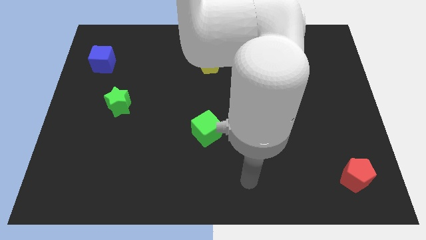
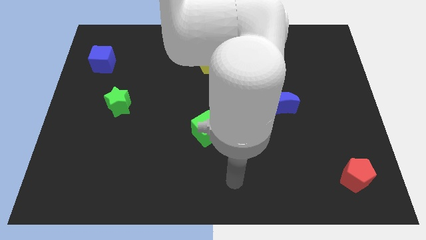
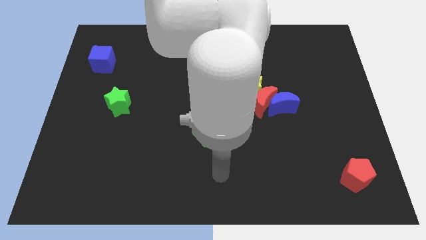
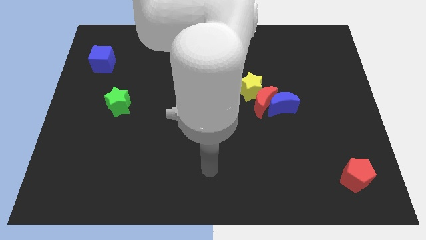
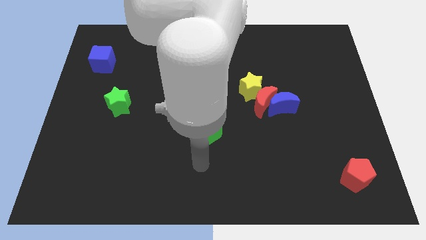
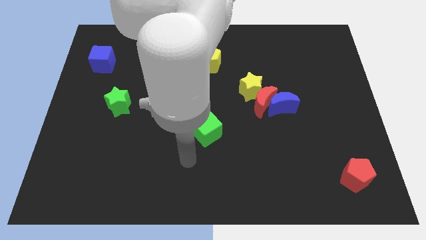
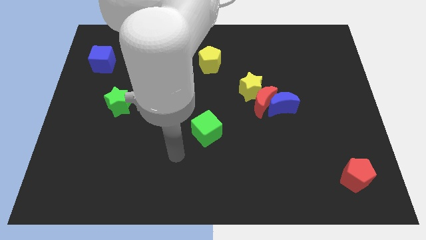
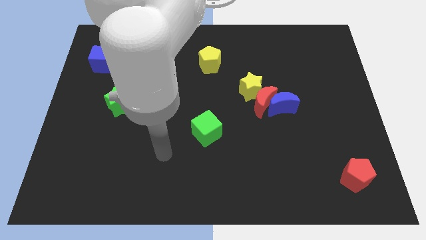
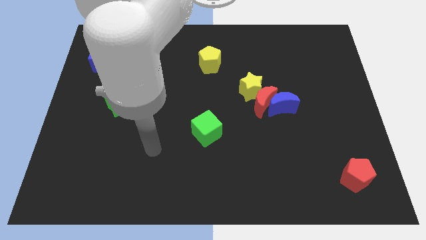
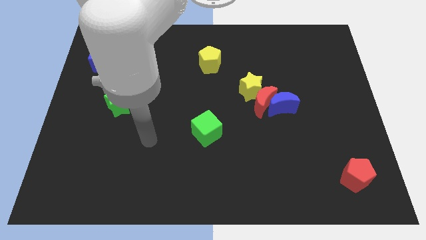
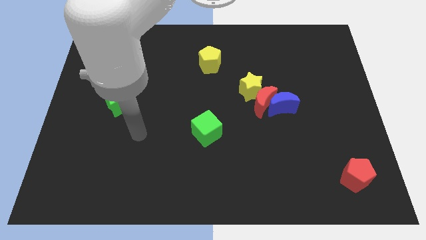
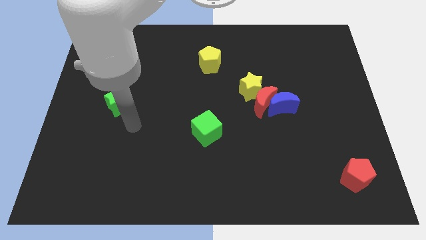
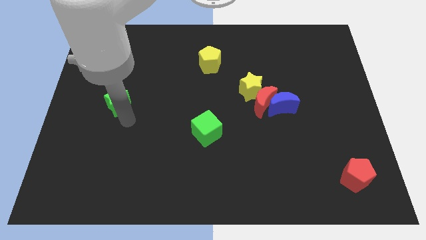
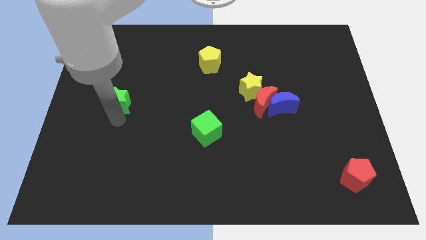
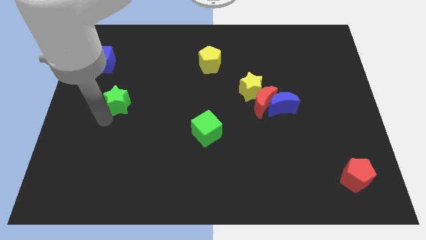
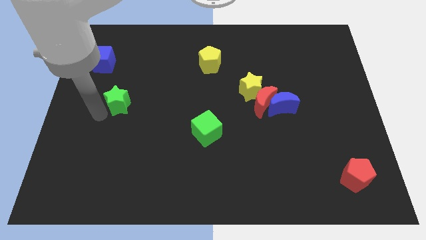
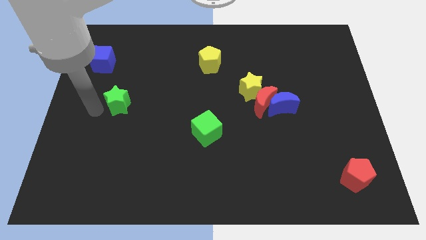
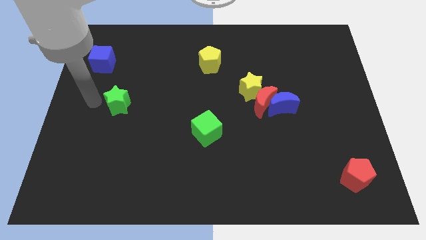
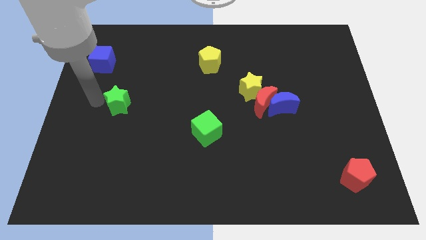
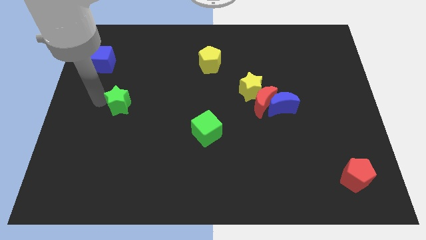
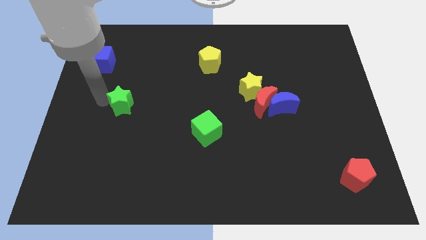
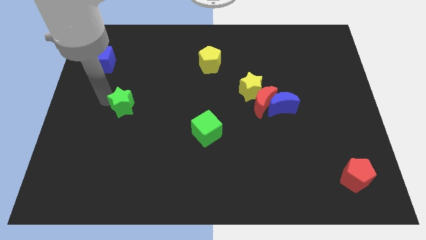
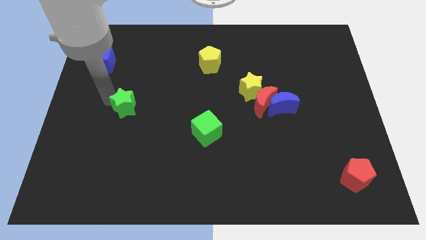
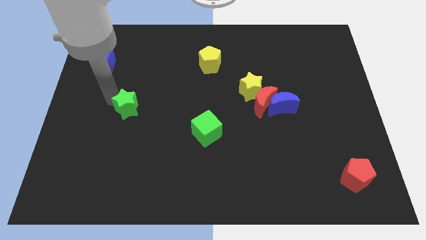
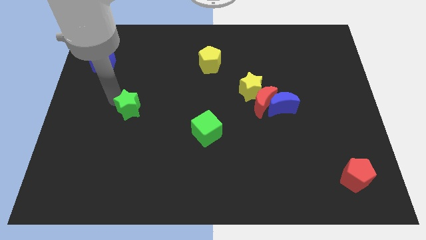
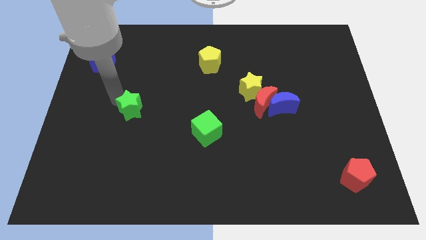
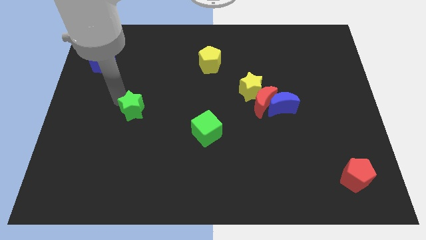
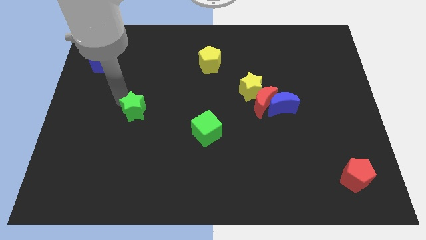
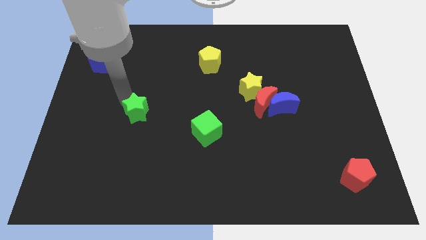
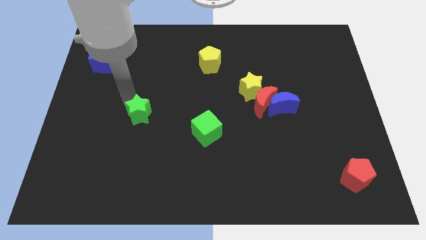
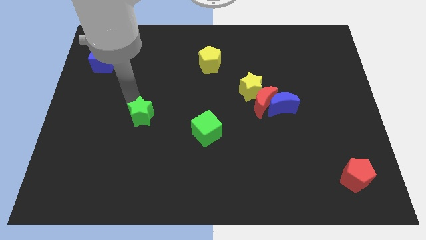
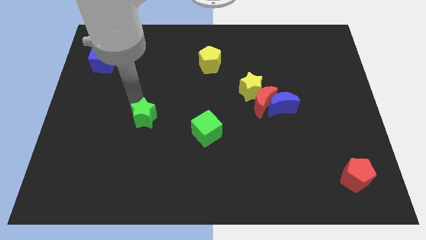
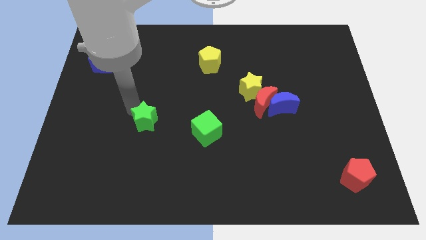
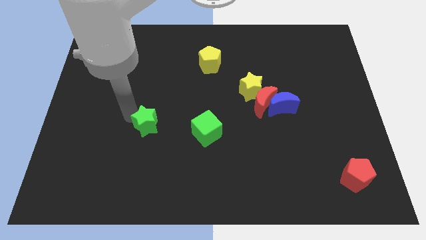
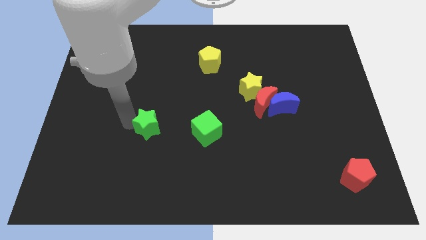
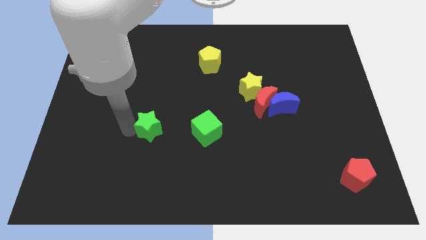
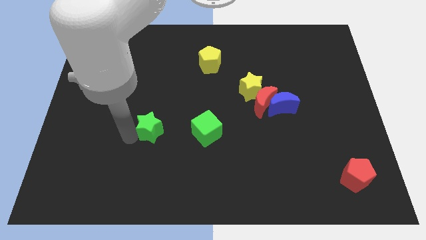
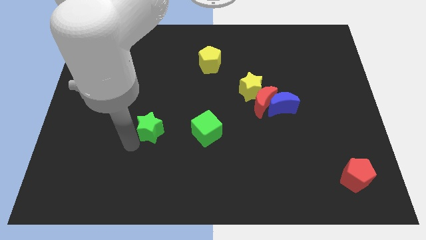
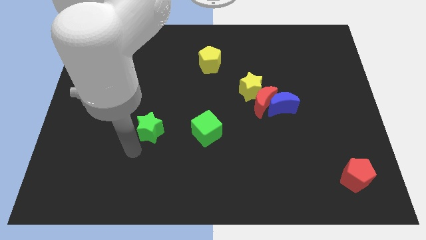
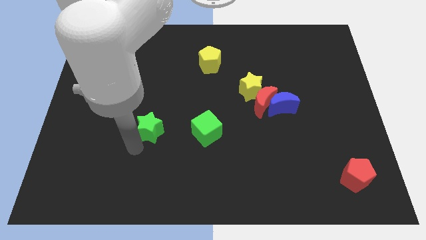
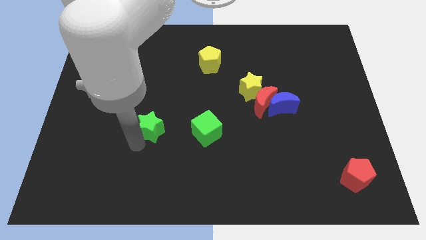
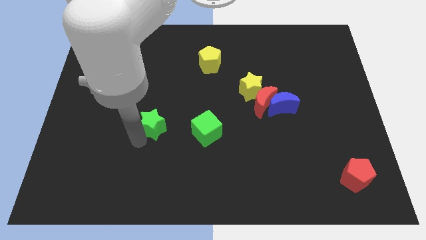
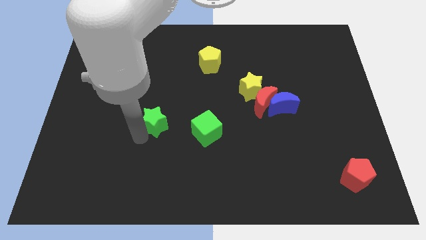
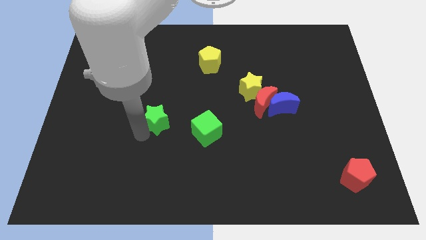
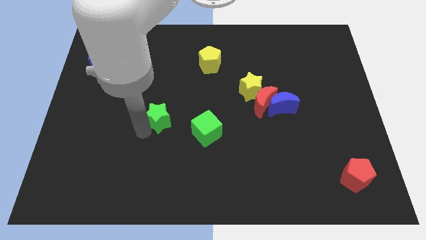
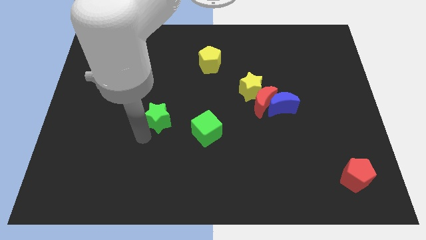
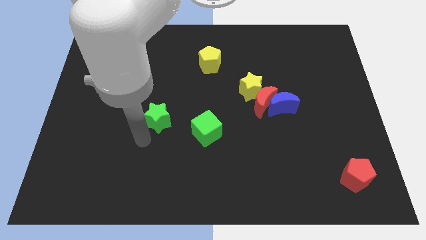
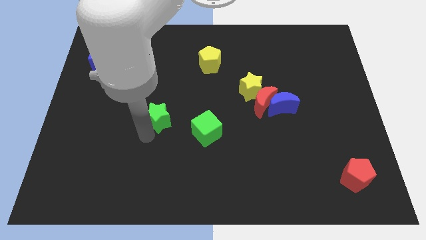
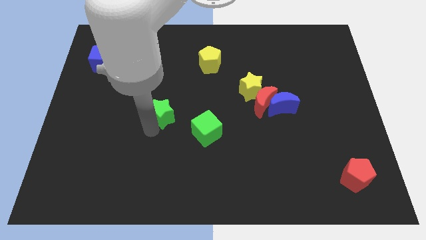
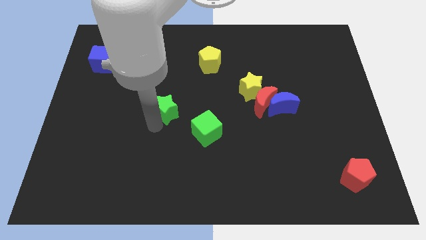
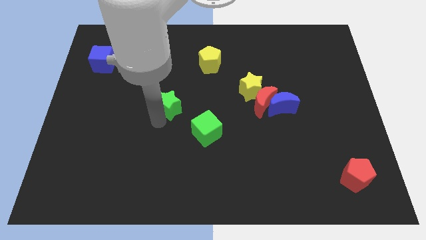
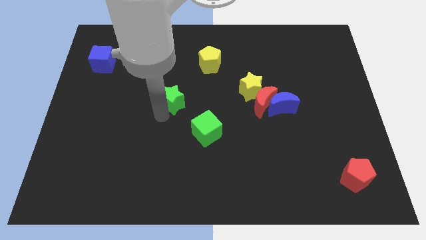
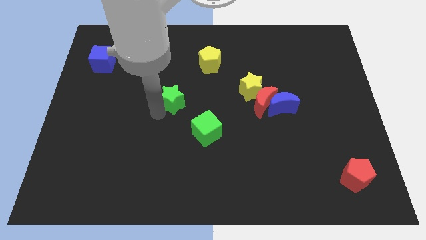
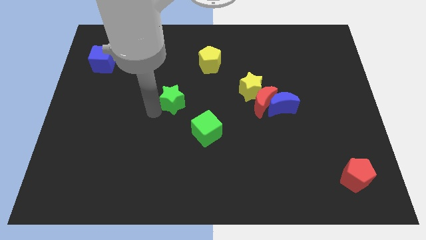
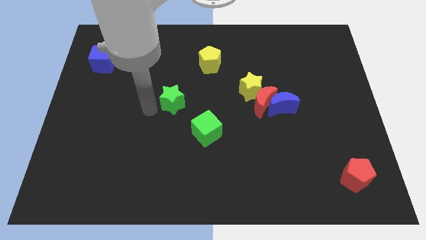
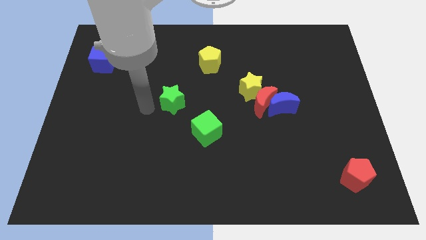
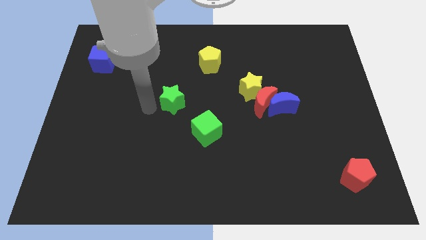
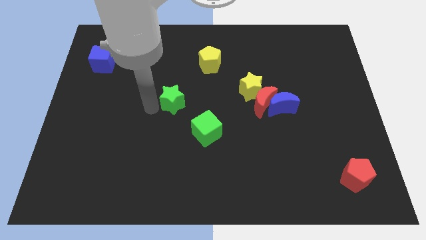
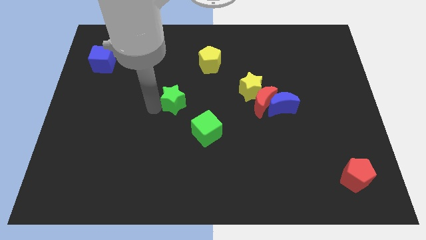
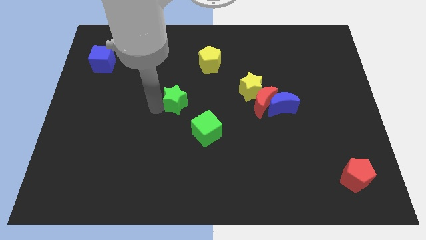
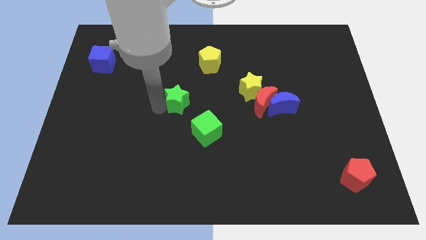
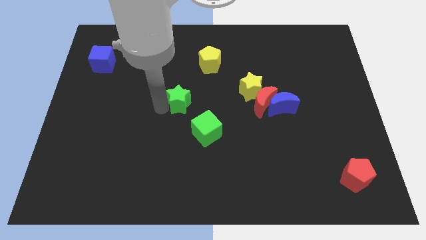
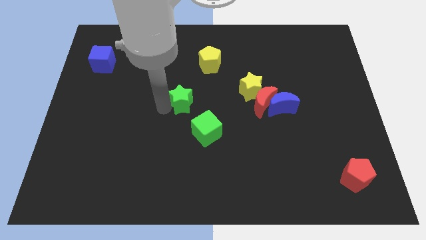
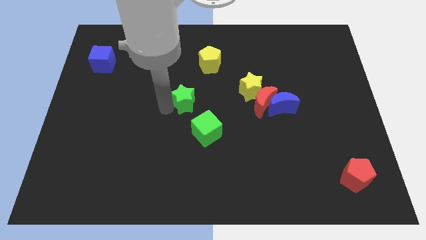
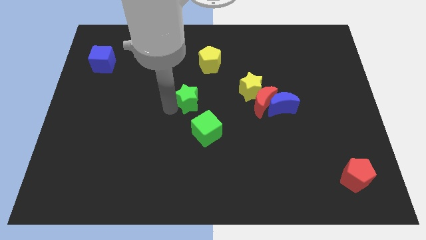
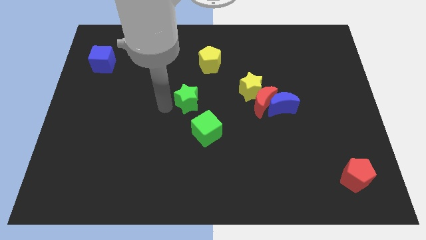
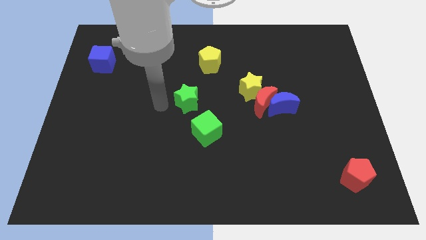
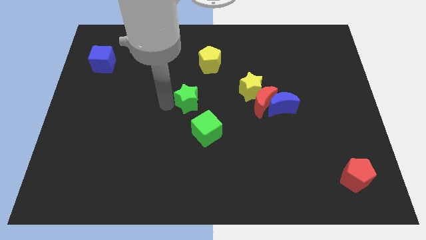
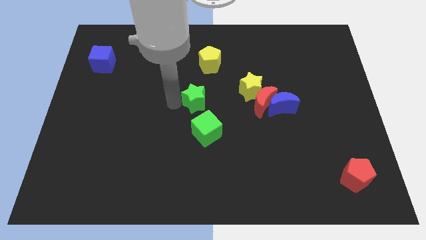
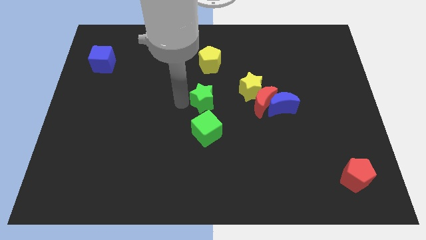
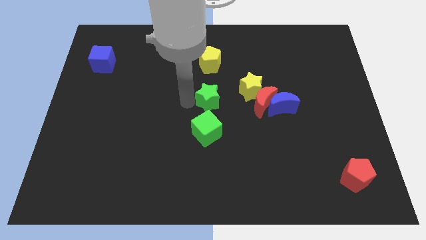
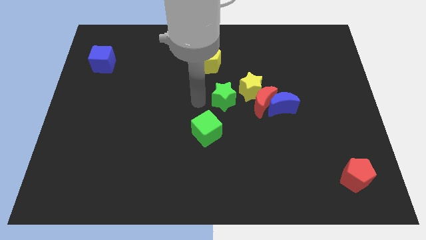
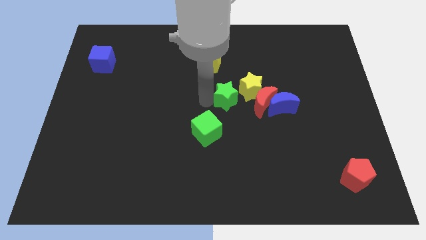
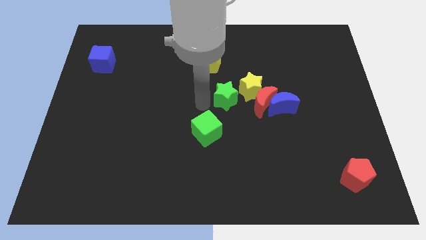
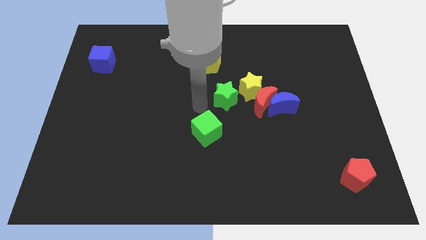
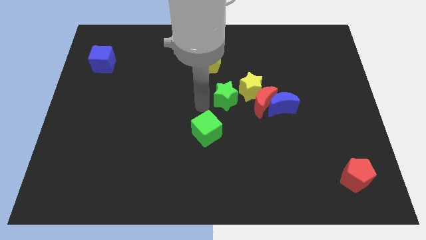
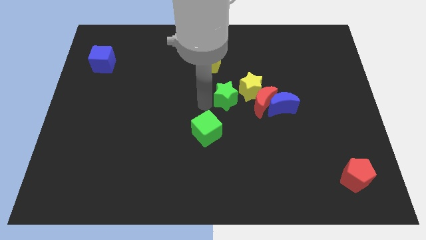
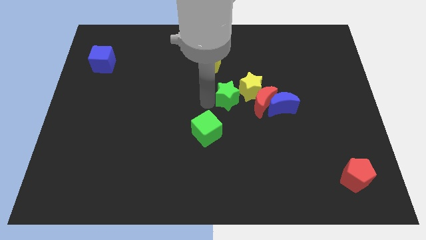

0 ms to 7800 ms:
push the green star to the yellow star
